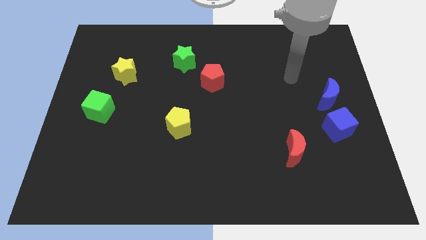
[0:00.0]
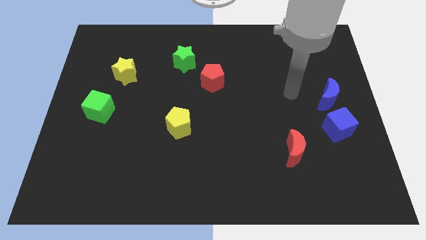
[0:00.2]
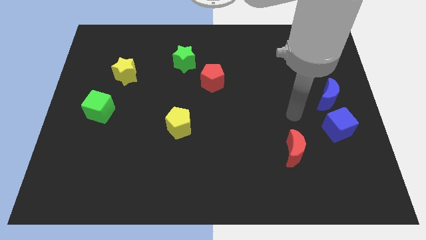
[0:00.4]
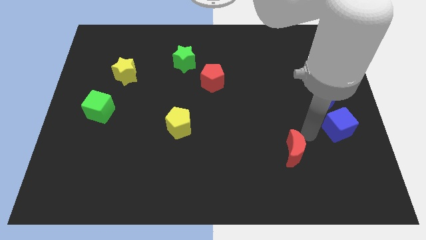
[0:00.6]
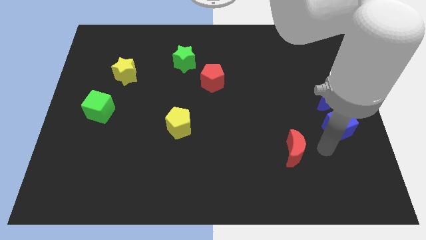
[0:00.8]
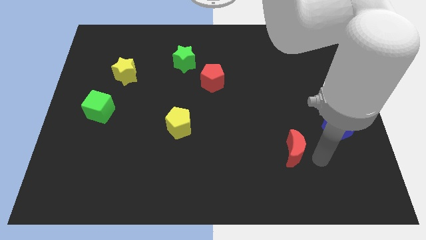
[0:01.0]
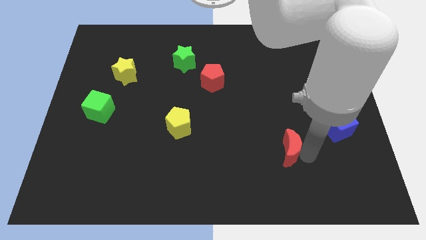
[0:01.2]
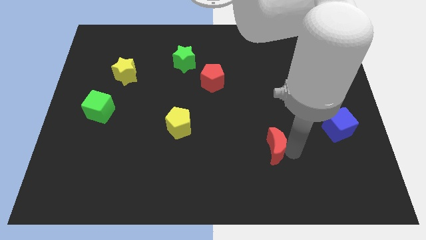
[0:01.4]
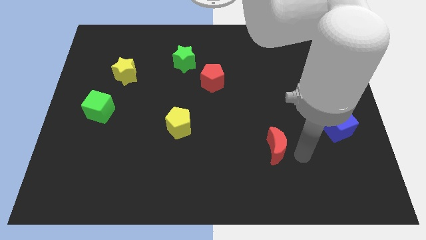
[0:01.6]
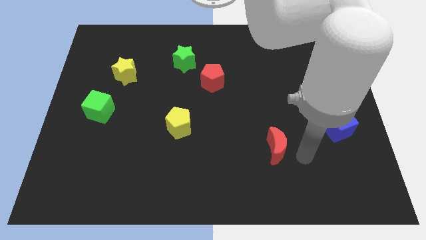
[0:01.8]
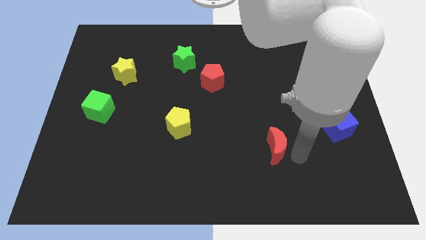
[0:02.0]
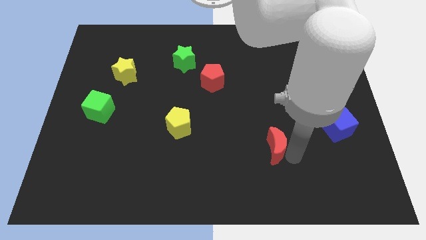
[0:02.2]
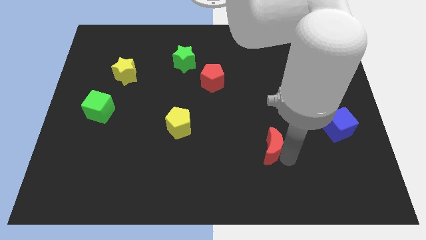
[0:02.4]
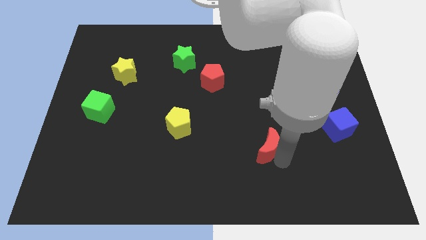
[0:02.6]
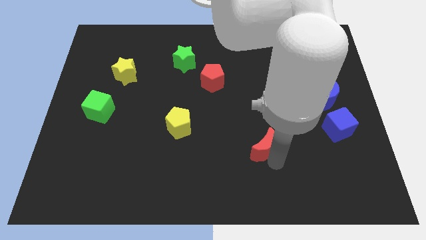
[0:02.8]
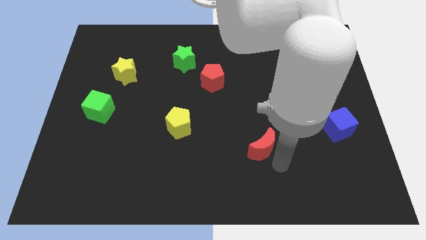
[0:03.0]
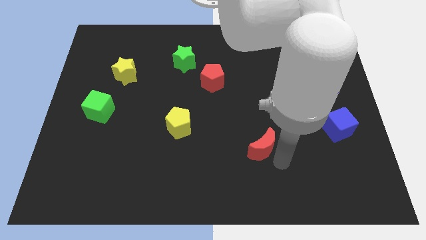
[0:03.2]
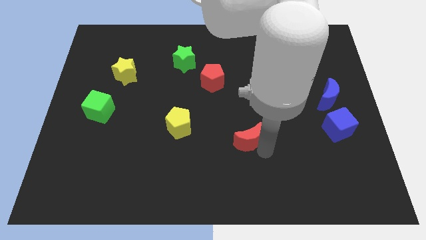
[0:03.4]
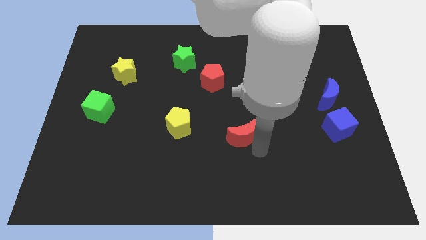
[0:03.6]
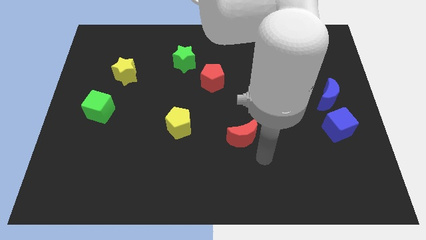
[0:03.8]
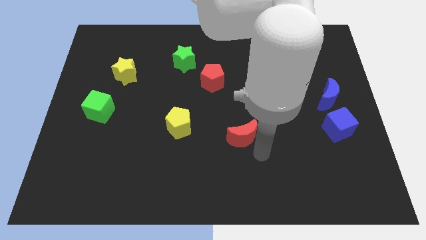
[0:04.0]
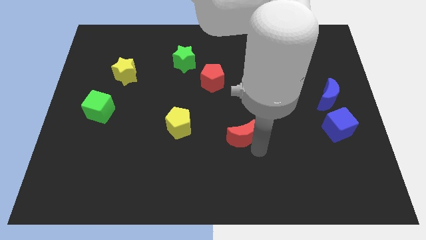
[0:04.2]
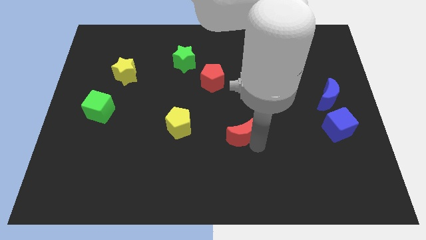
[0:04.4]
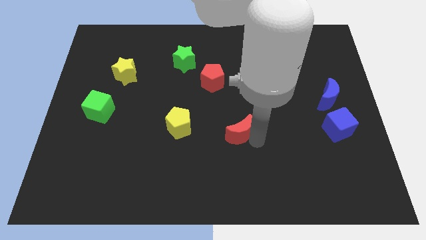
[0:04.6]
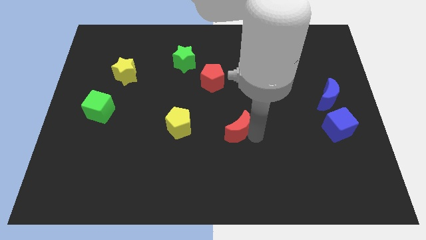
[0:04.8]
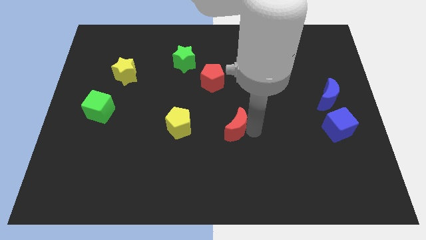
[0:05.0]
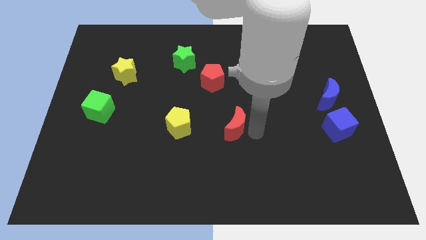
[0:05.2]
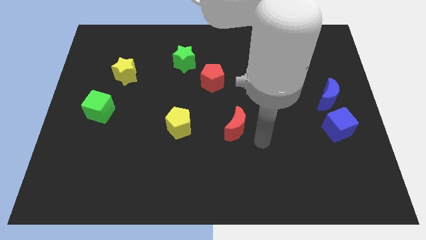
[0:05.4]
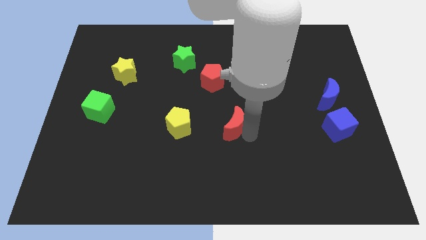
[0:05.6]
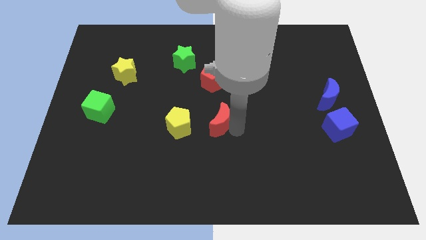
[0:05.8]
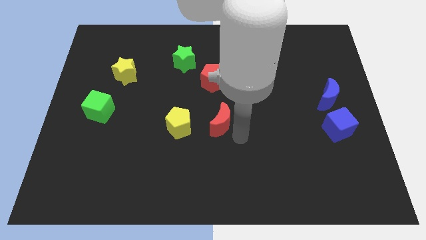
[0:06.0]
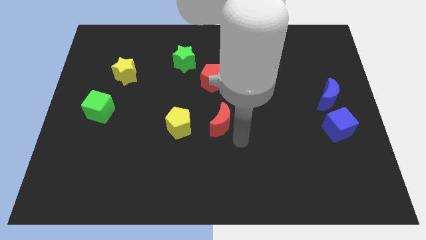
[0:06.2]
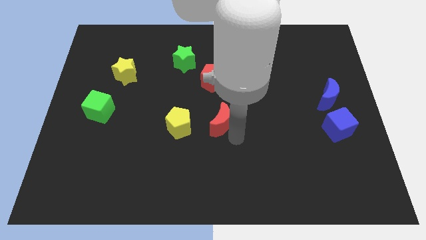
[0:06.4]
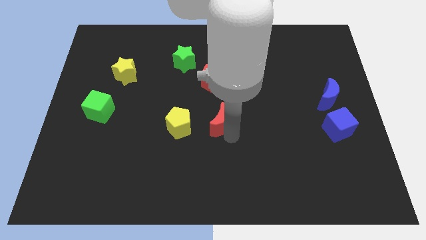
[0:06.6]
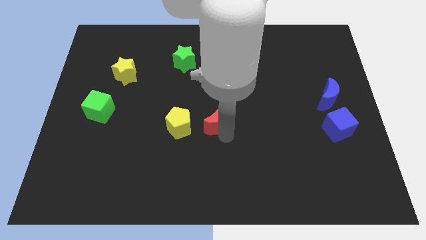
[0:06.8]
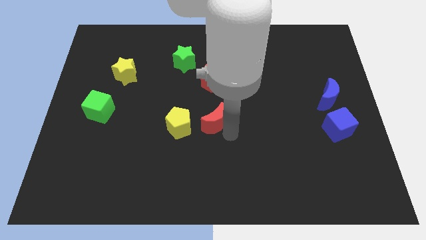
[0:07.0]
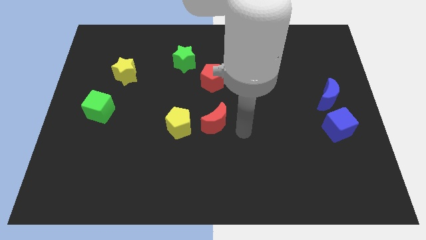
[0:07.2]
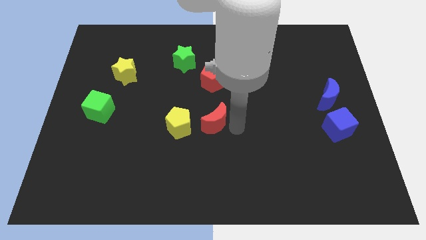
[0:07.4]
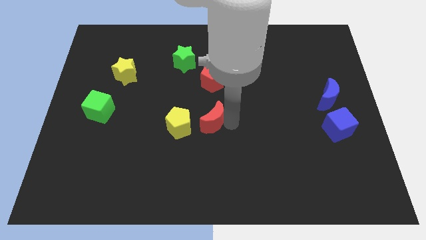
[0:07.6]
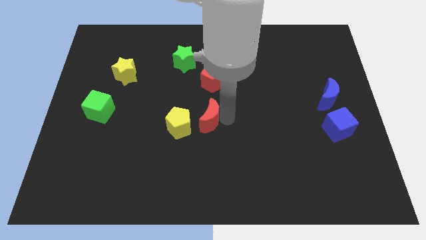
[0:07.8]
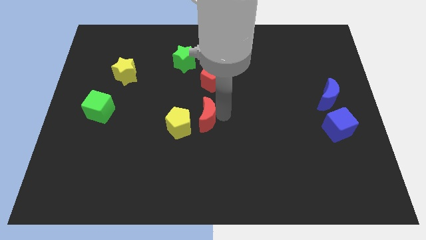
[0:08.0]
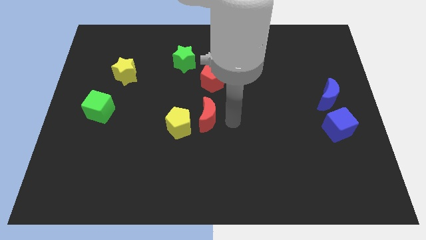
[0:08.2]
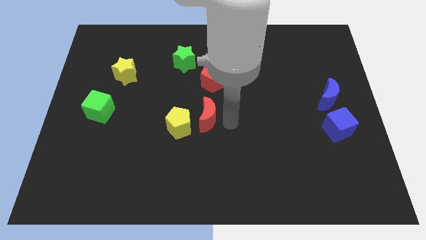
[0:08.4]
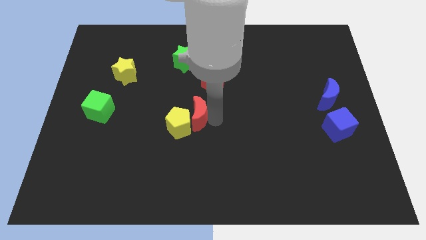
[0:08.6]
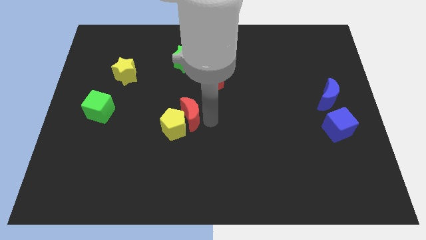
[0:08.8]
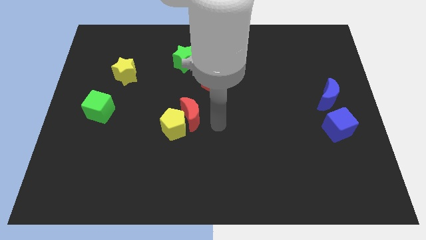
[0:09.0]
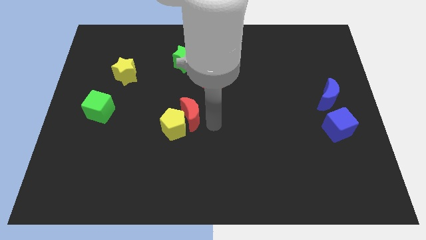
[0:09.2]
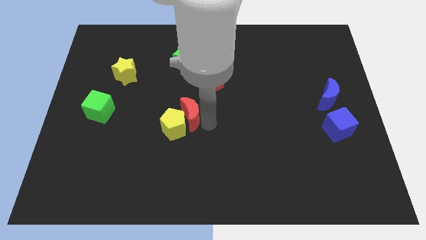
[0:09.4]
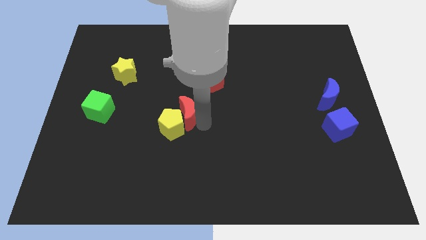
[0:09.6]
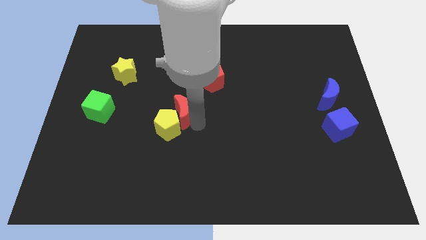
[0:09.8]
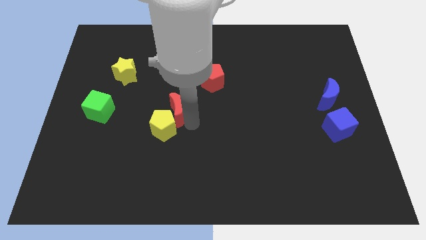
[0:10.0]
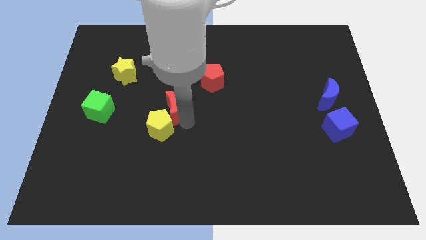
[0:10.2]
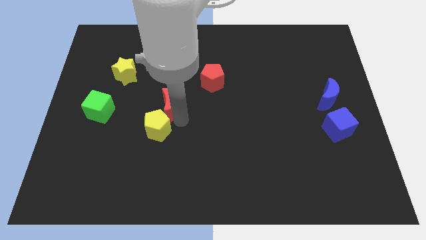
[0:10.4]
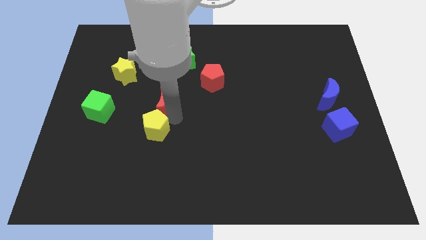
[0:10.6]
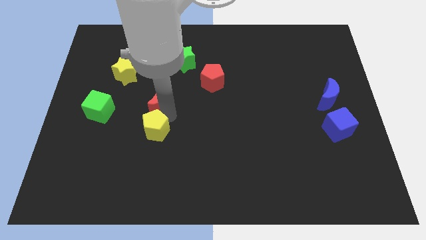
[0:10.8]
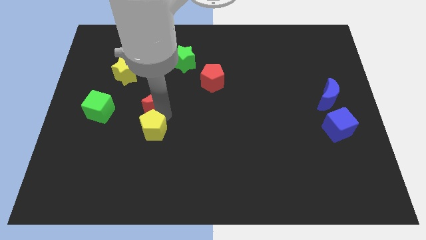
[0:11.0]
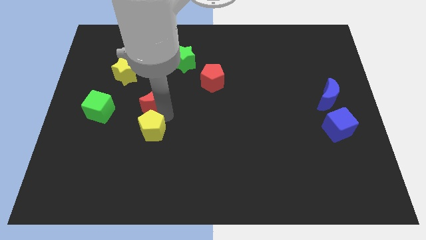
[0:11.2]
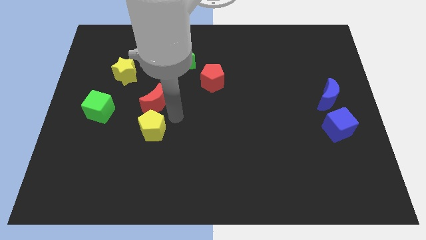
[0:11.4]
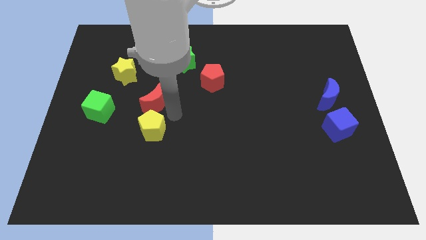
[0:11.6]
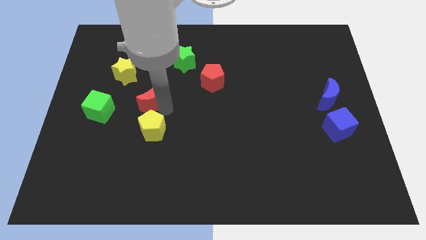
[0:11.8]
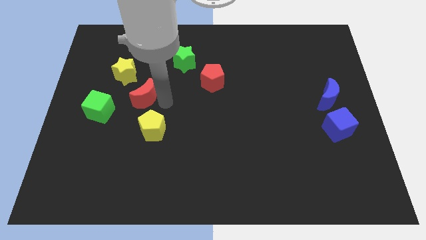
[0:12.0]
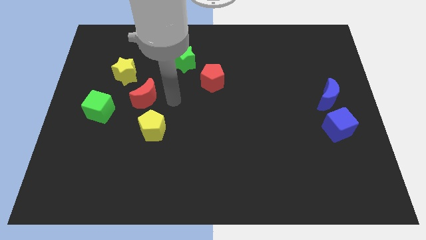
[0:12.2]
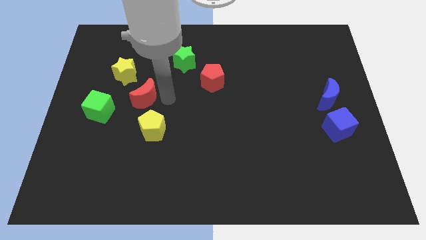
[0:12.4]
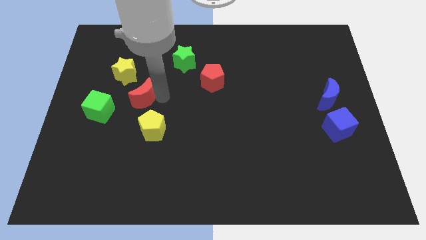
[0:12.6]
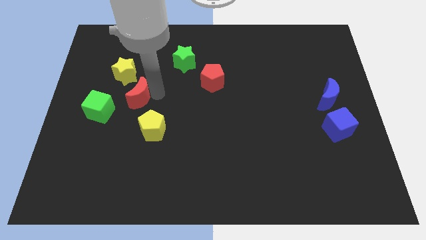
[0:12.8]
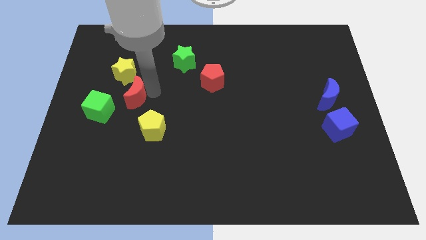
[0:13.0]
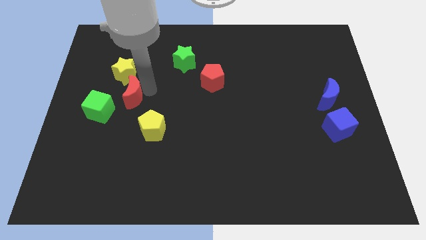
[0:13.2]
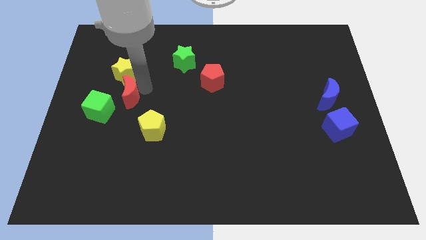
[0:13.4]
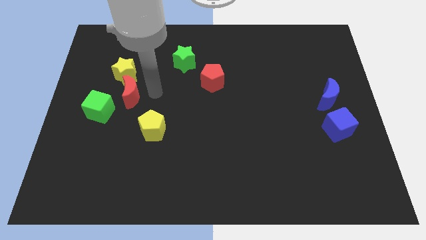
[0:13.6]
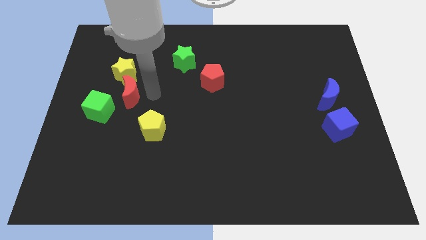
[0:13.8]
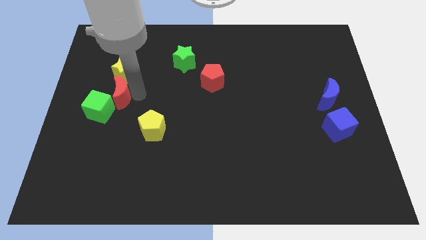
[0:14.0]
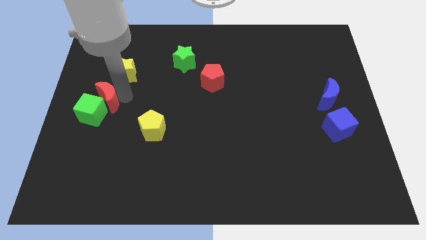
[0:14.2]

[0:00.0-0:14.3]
put the red moon to the left side of the board
